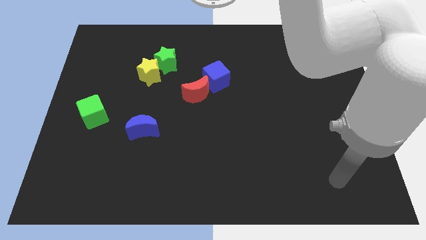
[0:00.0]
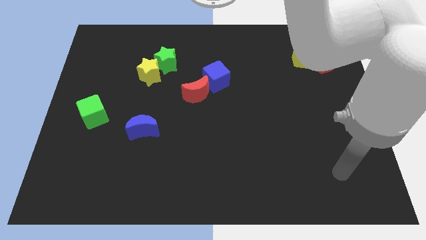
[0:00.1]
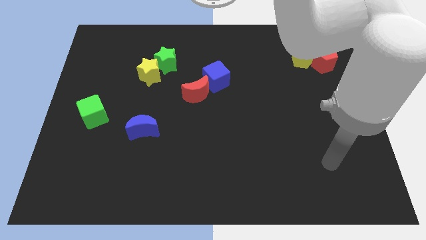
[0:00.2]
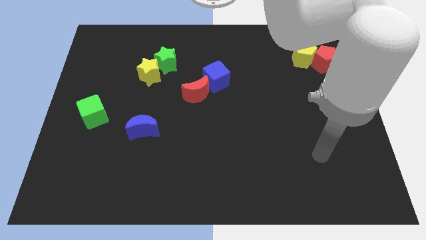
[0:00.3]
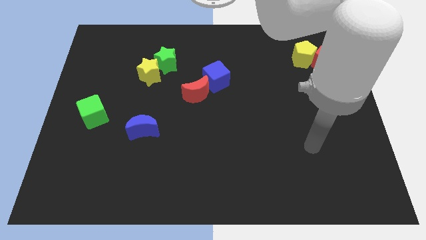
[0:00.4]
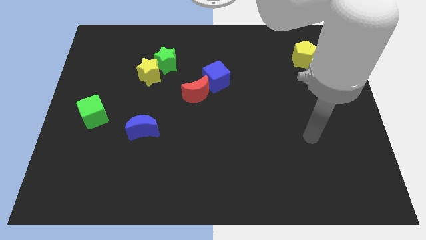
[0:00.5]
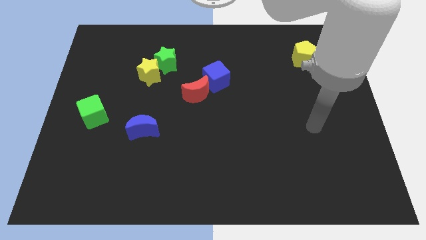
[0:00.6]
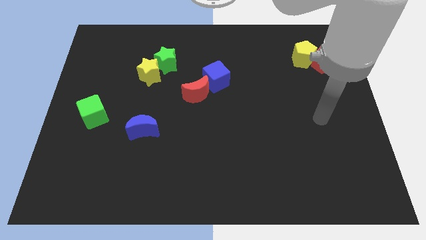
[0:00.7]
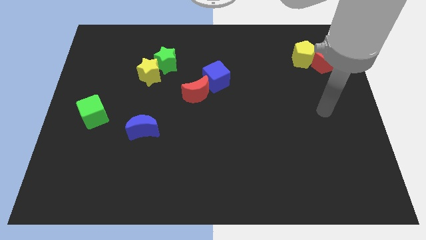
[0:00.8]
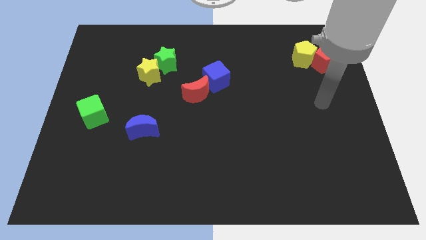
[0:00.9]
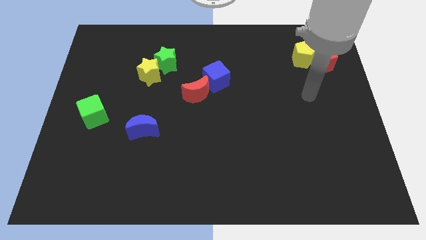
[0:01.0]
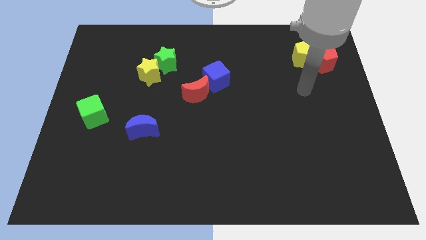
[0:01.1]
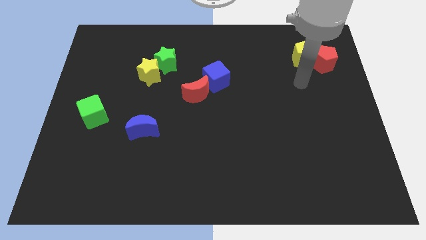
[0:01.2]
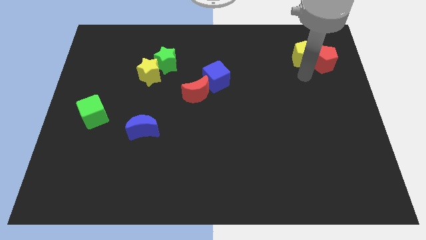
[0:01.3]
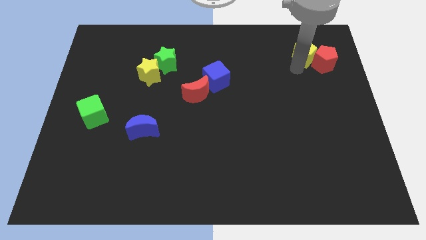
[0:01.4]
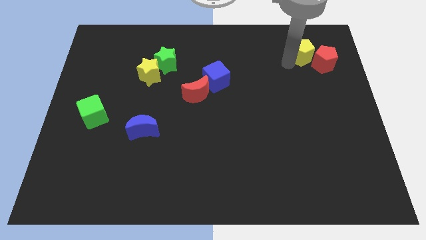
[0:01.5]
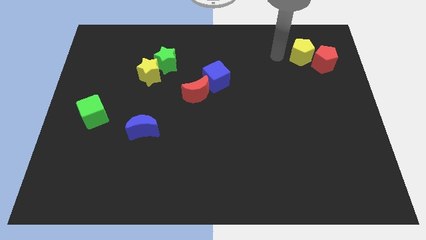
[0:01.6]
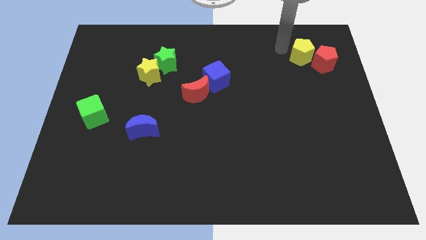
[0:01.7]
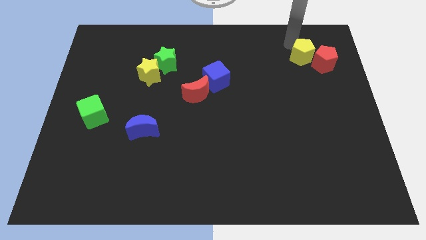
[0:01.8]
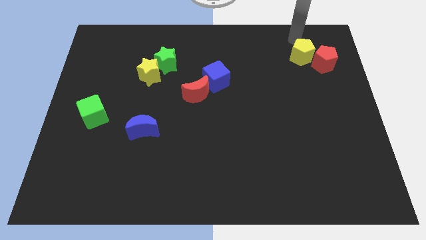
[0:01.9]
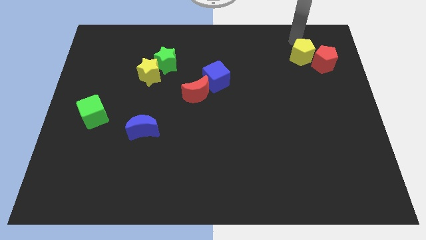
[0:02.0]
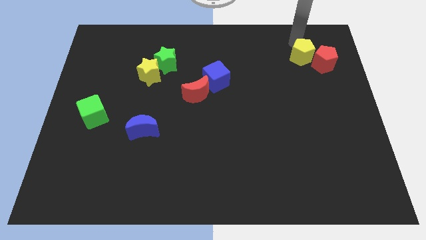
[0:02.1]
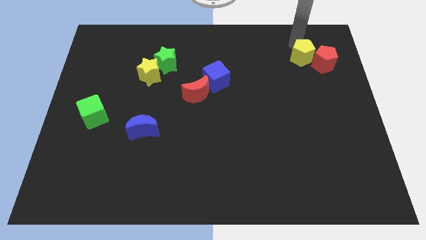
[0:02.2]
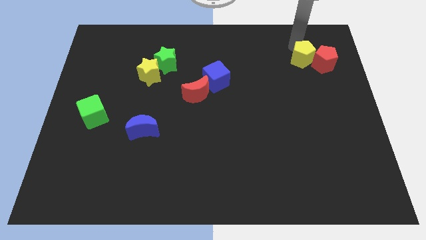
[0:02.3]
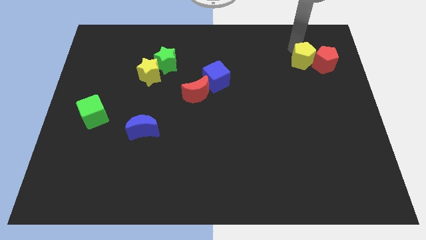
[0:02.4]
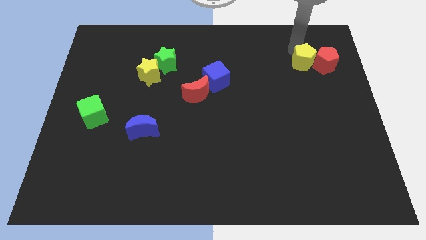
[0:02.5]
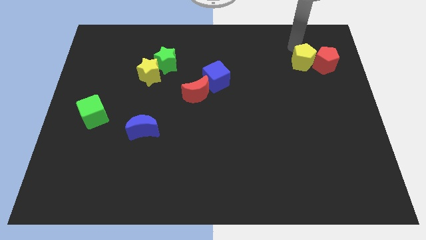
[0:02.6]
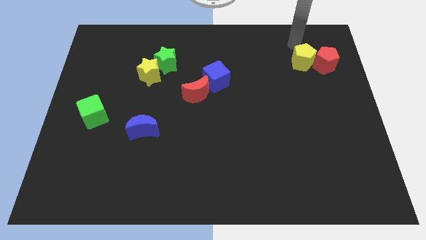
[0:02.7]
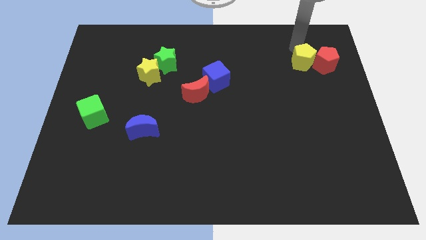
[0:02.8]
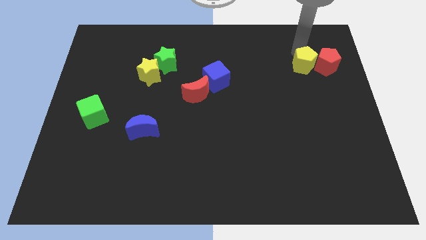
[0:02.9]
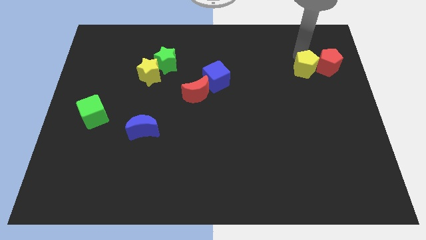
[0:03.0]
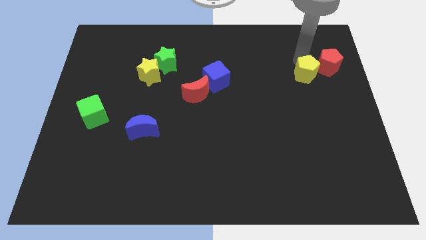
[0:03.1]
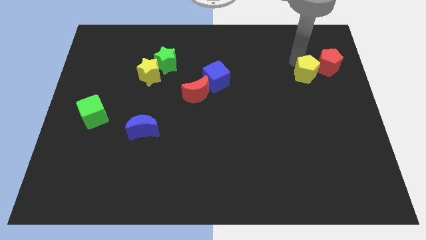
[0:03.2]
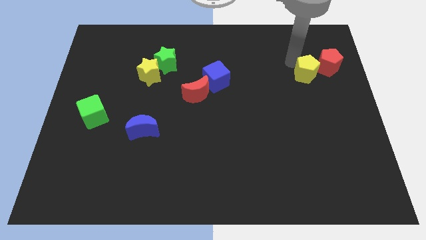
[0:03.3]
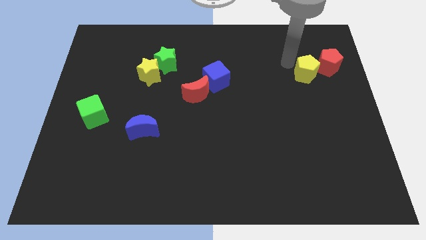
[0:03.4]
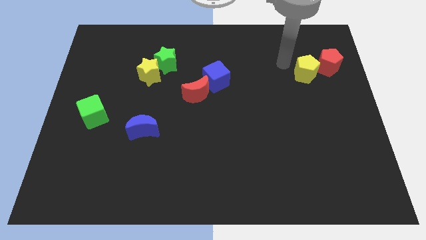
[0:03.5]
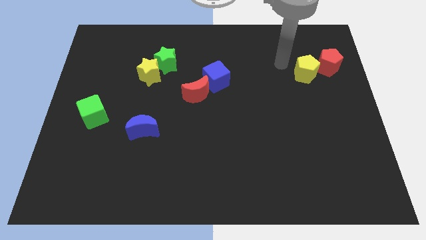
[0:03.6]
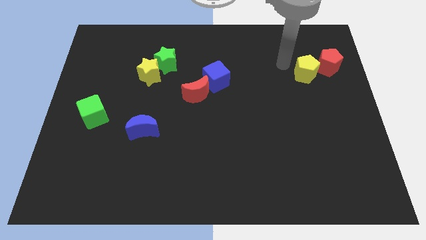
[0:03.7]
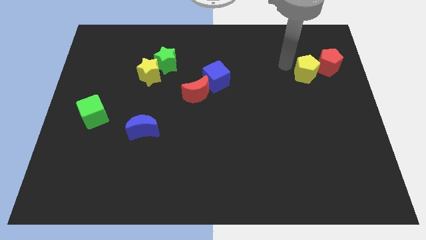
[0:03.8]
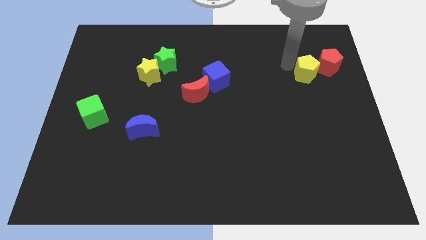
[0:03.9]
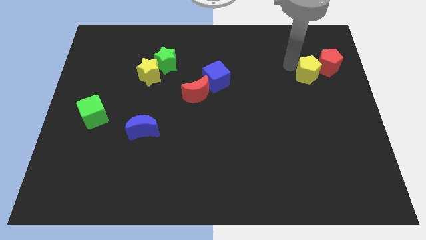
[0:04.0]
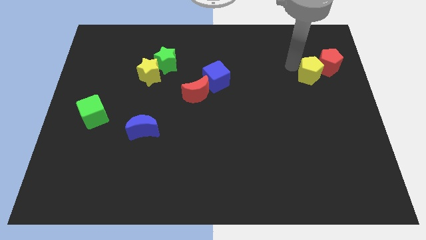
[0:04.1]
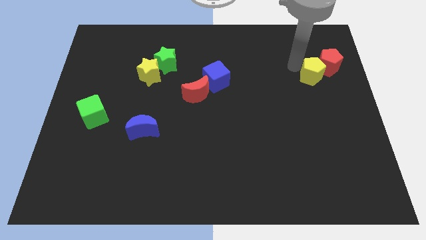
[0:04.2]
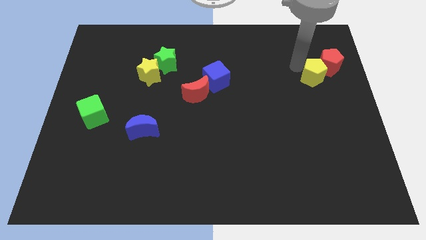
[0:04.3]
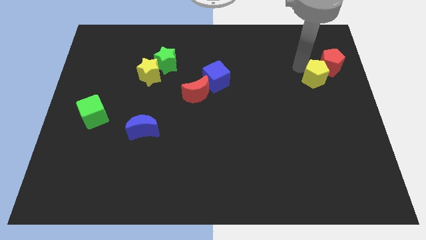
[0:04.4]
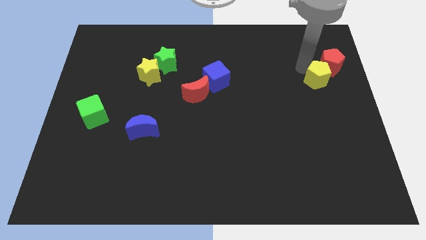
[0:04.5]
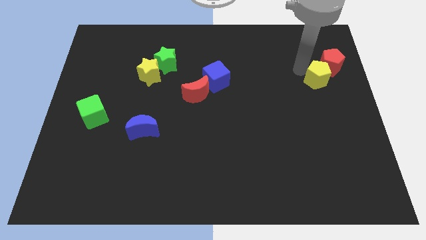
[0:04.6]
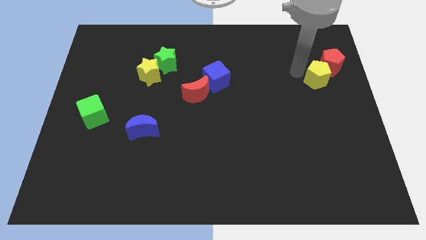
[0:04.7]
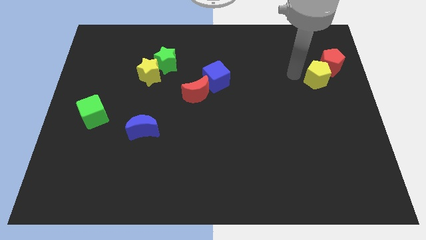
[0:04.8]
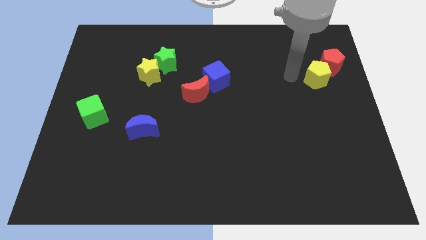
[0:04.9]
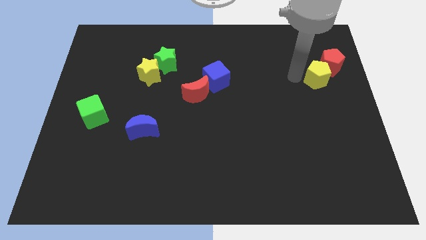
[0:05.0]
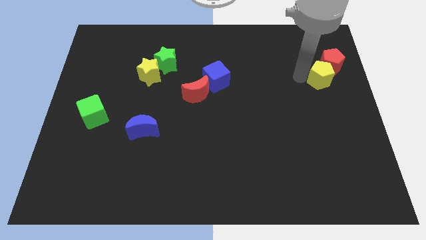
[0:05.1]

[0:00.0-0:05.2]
put the yellow pentagon to the right side of the board
